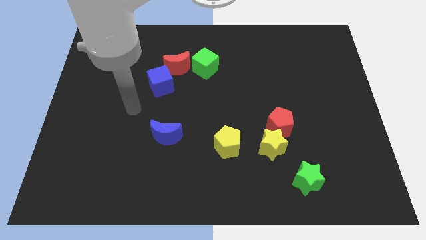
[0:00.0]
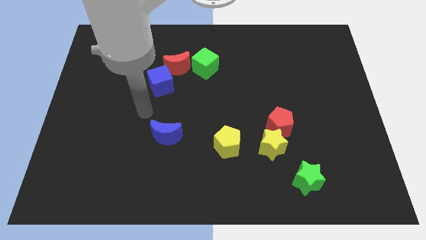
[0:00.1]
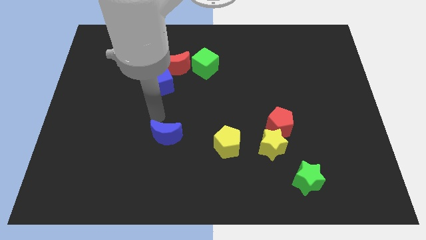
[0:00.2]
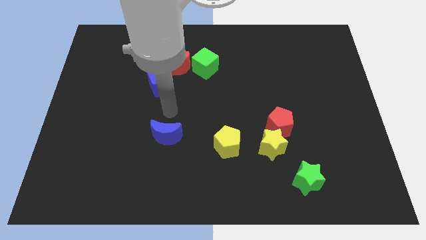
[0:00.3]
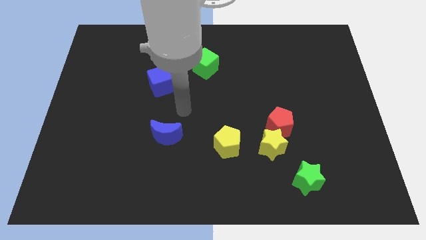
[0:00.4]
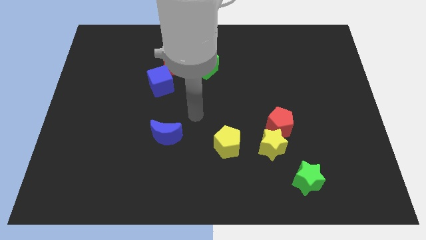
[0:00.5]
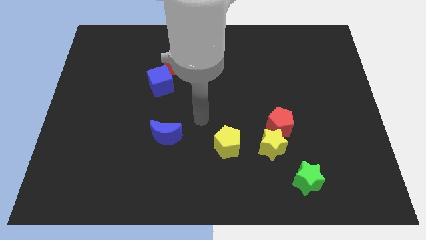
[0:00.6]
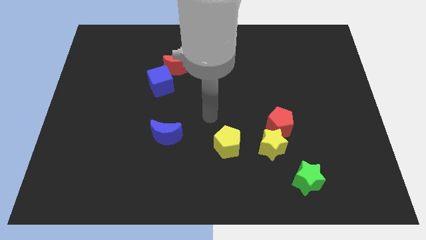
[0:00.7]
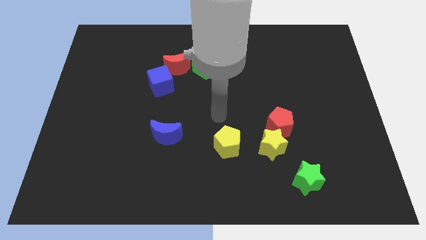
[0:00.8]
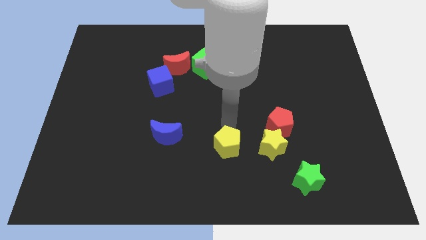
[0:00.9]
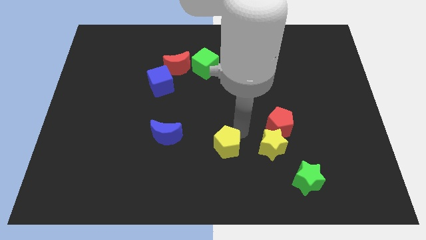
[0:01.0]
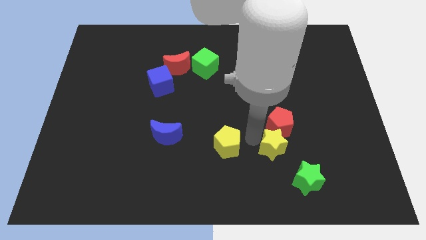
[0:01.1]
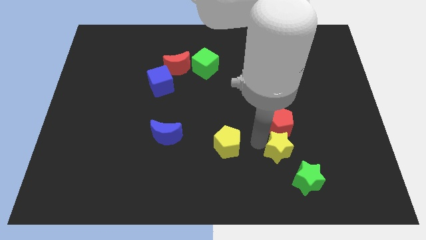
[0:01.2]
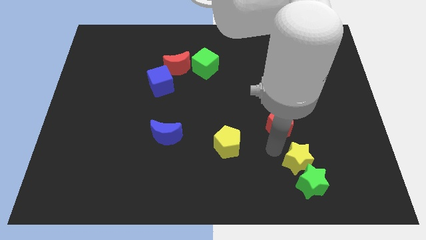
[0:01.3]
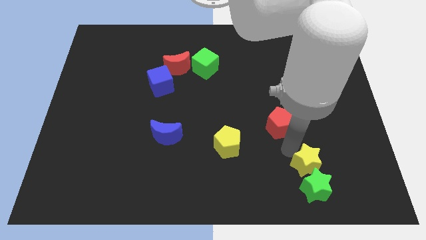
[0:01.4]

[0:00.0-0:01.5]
separate the red pentagon from the yellow star

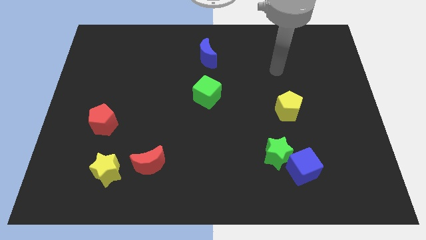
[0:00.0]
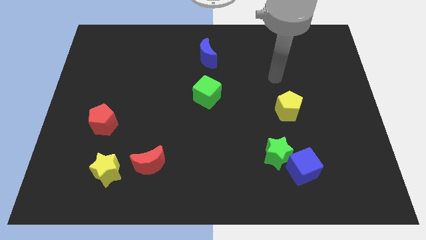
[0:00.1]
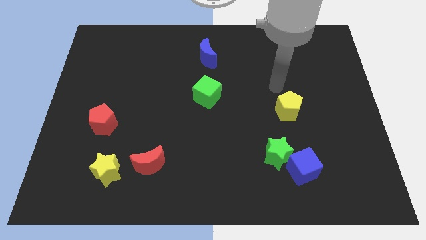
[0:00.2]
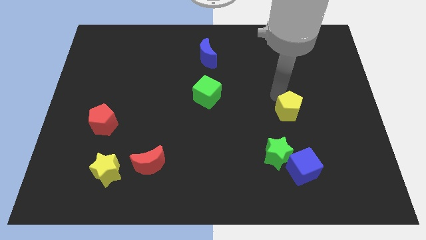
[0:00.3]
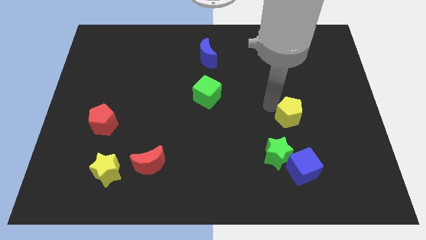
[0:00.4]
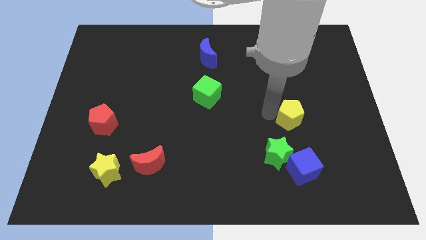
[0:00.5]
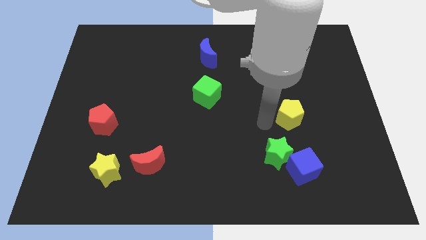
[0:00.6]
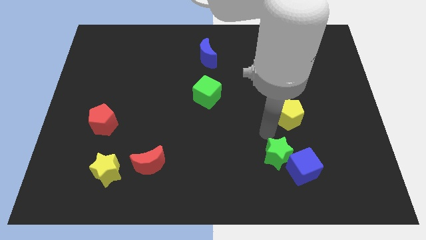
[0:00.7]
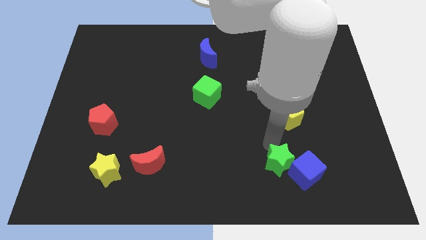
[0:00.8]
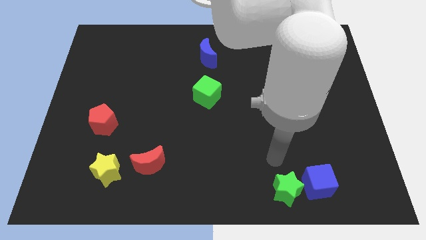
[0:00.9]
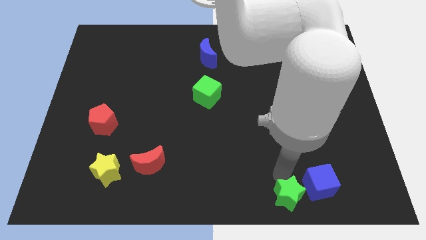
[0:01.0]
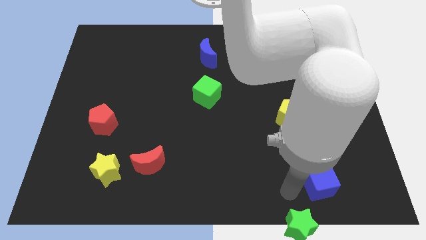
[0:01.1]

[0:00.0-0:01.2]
pull the blue cube apart from the green star

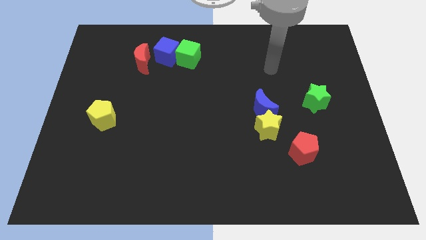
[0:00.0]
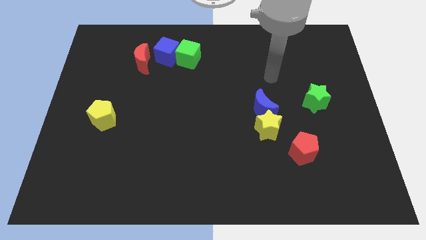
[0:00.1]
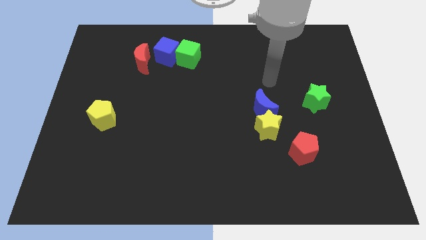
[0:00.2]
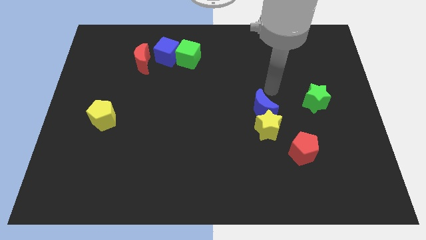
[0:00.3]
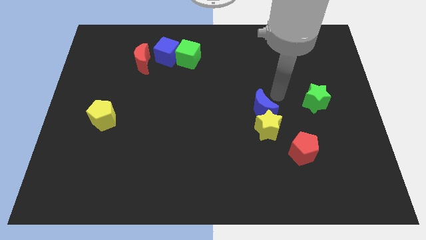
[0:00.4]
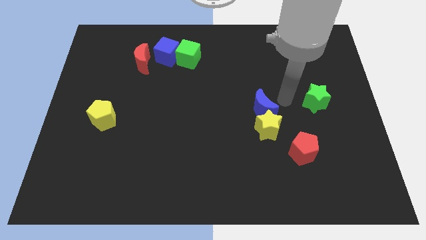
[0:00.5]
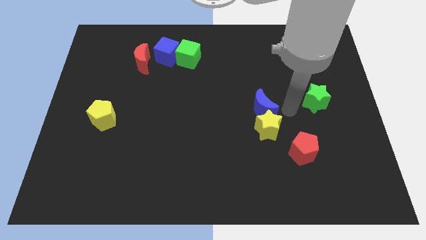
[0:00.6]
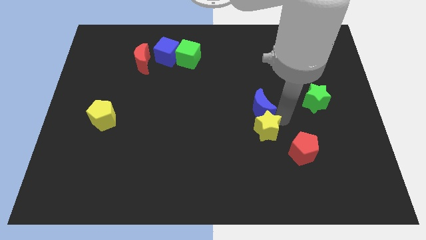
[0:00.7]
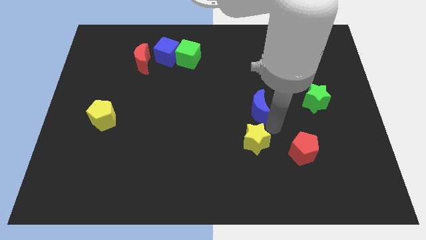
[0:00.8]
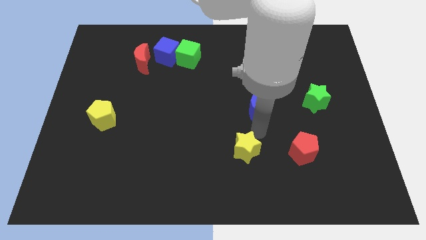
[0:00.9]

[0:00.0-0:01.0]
pull the blue moon apart from the yellow star

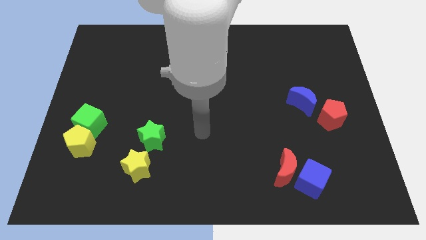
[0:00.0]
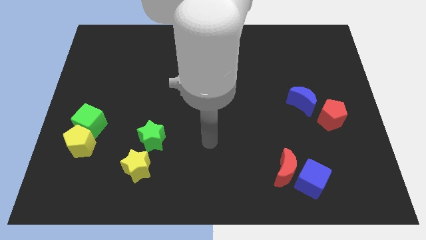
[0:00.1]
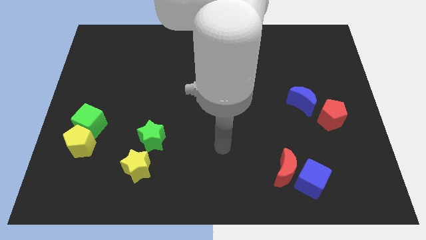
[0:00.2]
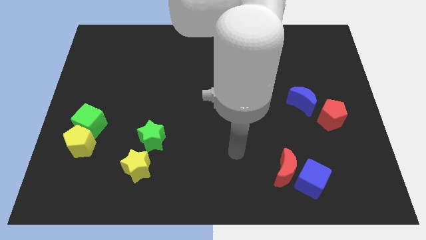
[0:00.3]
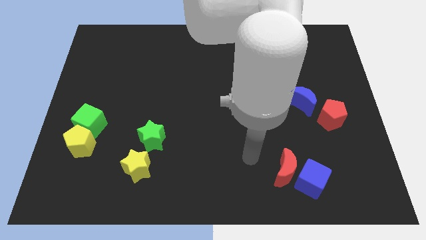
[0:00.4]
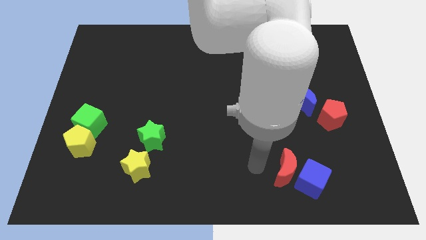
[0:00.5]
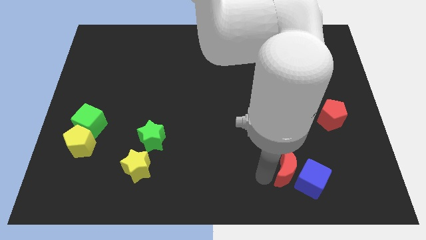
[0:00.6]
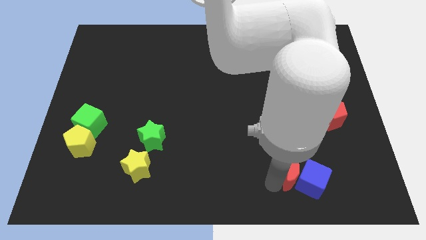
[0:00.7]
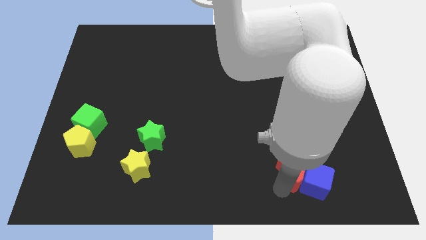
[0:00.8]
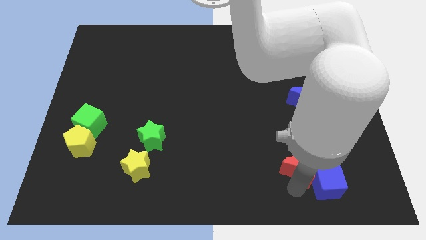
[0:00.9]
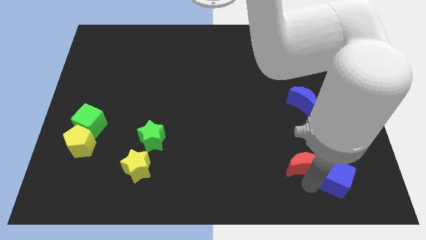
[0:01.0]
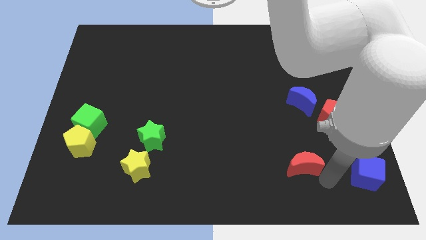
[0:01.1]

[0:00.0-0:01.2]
pull the red moon apart from the blue cube

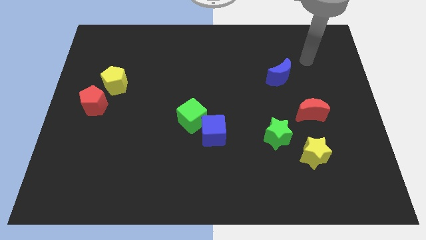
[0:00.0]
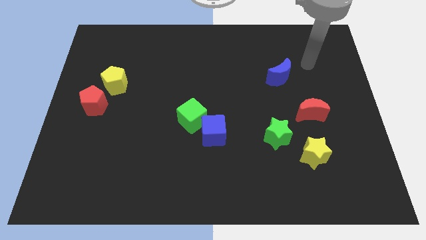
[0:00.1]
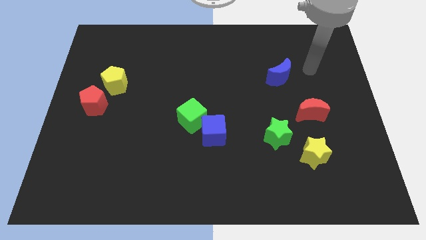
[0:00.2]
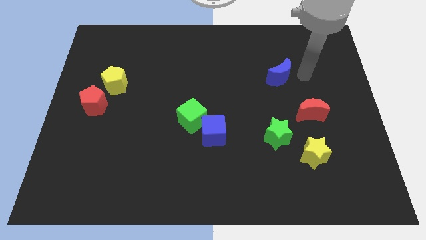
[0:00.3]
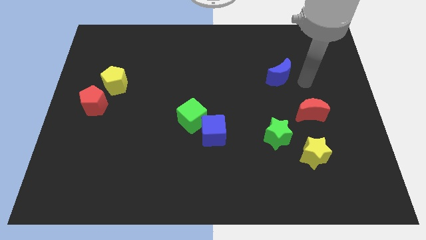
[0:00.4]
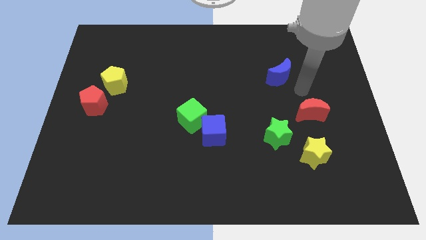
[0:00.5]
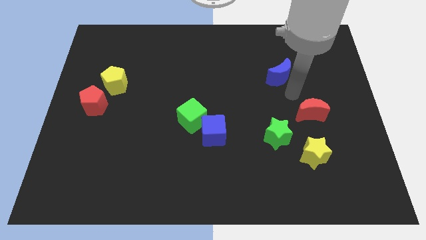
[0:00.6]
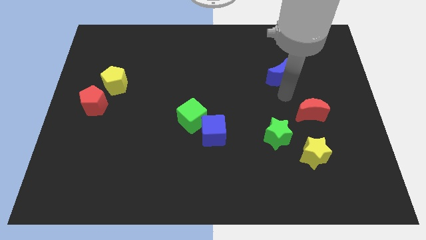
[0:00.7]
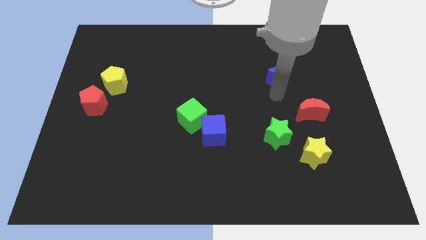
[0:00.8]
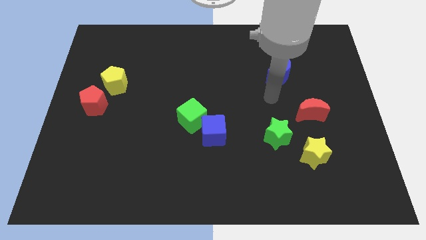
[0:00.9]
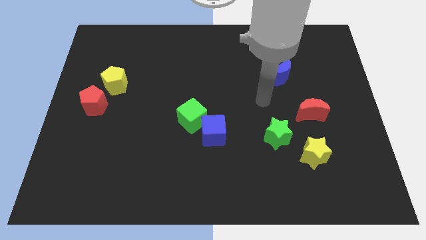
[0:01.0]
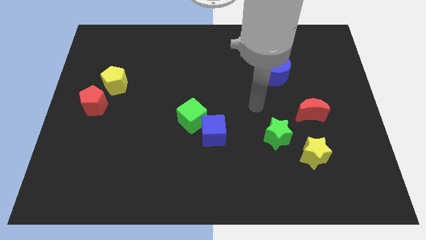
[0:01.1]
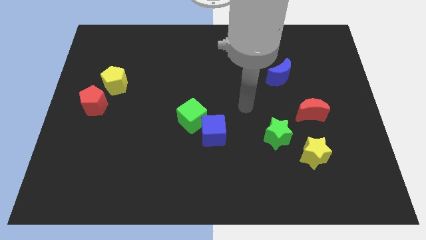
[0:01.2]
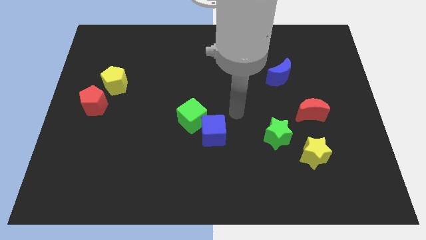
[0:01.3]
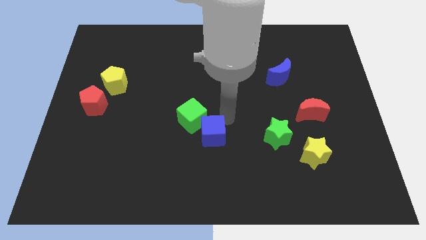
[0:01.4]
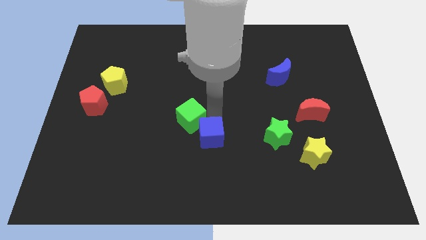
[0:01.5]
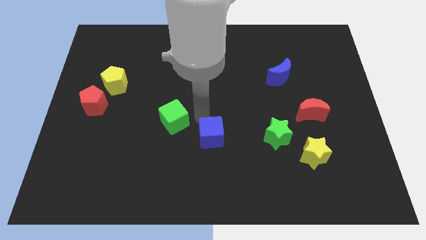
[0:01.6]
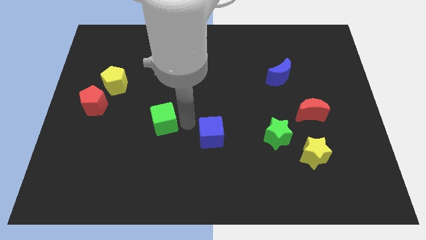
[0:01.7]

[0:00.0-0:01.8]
move the blue cube away from the green cube

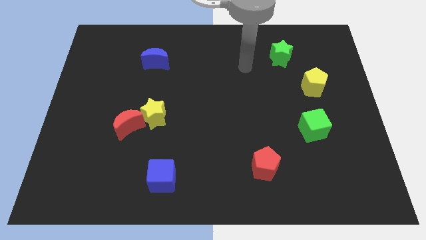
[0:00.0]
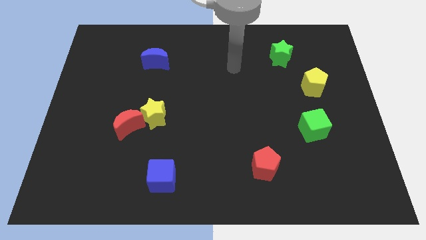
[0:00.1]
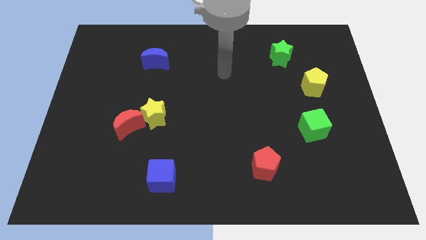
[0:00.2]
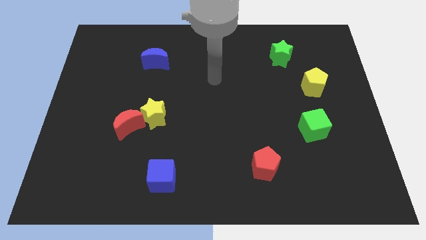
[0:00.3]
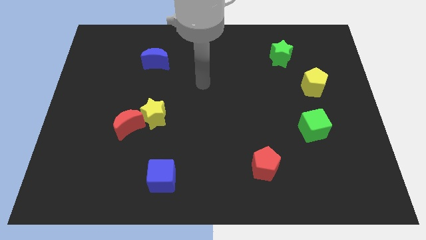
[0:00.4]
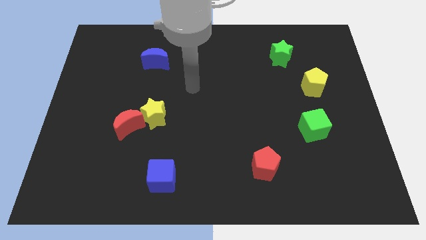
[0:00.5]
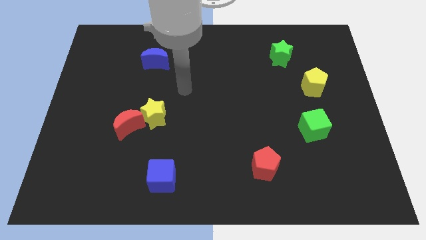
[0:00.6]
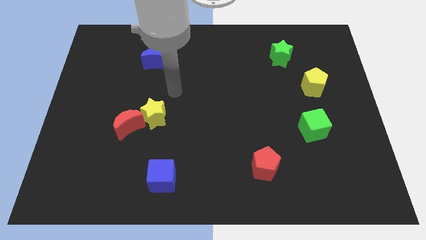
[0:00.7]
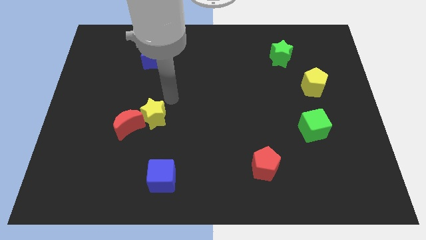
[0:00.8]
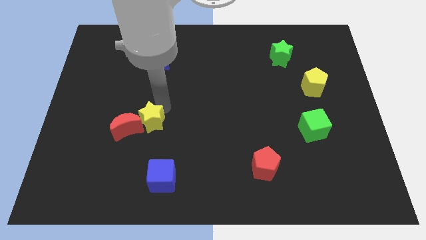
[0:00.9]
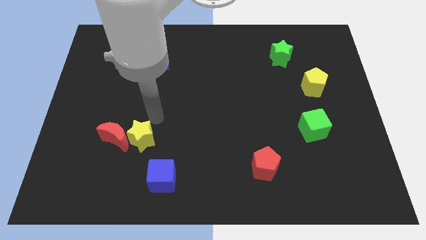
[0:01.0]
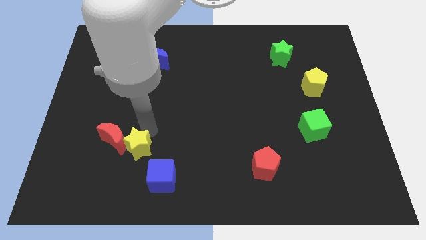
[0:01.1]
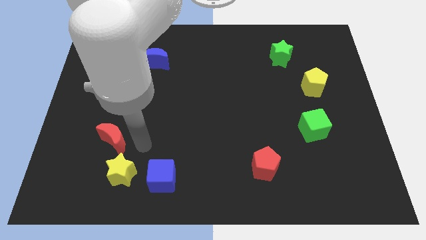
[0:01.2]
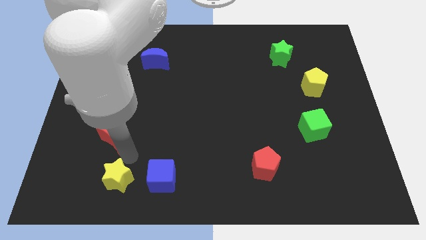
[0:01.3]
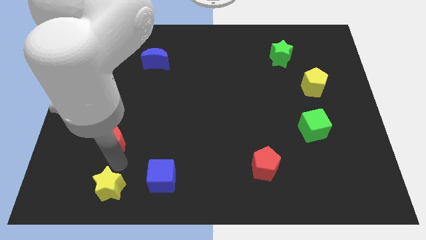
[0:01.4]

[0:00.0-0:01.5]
move the red moon away from the yellow star

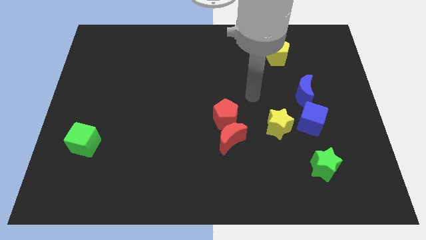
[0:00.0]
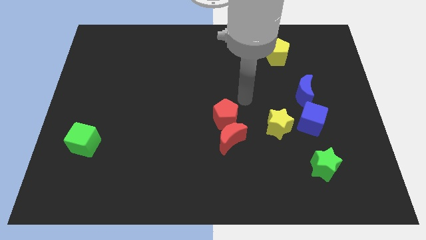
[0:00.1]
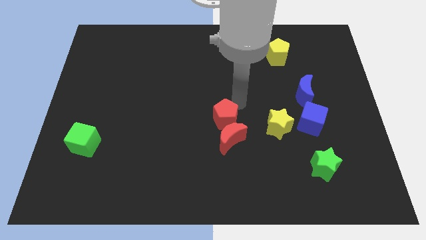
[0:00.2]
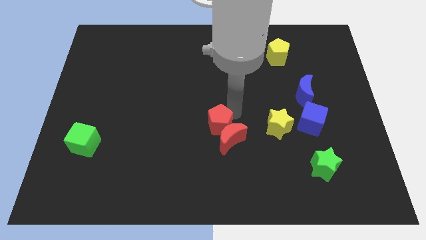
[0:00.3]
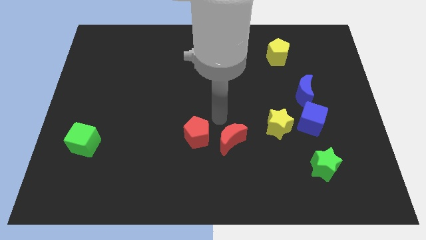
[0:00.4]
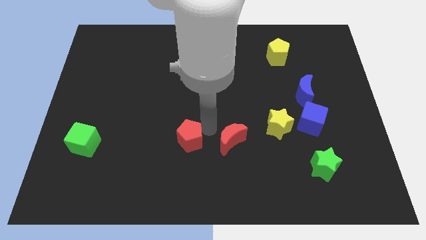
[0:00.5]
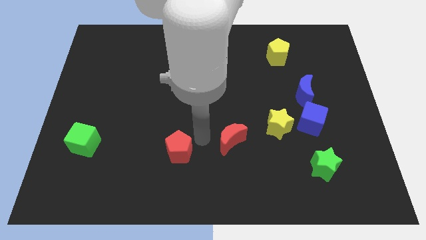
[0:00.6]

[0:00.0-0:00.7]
separate the red moon from the red pentagon

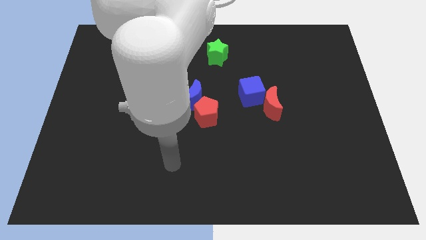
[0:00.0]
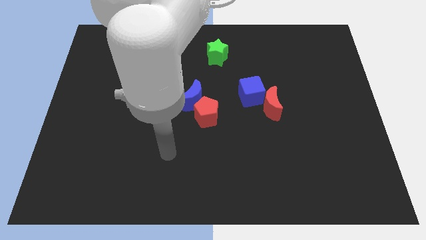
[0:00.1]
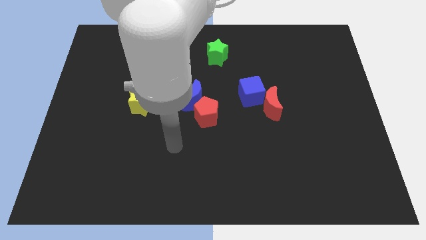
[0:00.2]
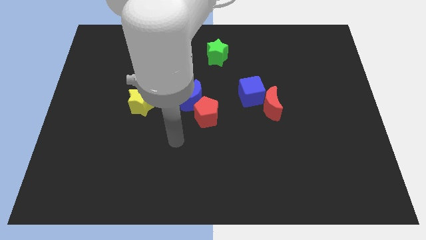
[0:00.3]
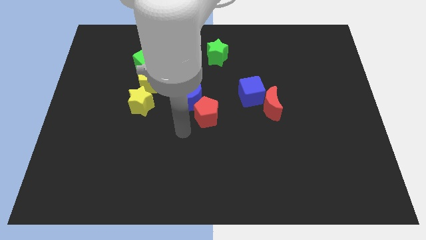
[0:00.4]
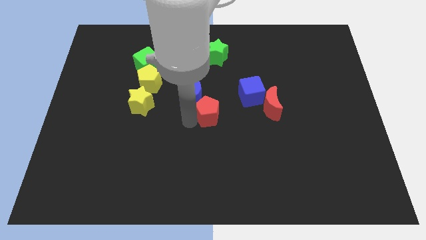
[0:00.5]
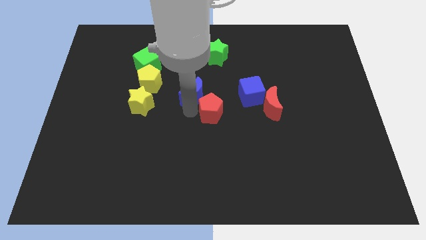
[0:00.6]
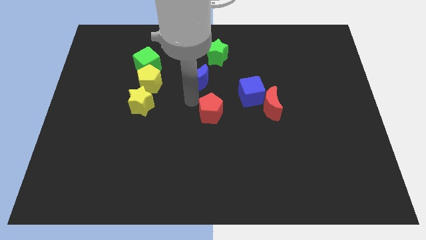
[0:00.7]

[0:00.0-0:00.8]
separate the red pentagon from the blue moon
